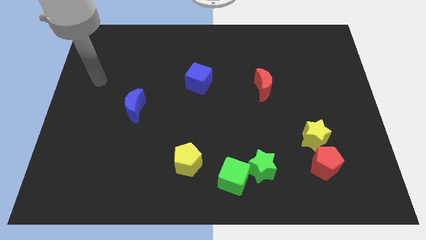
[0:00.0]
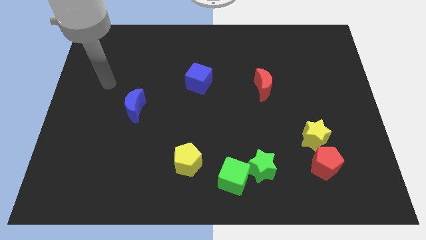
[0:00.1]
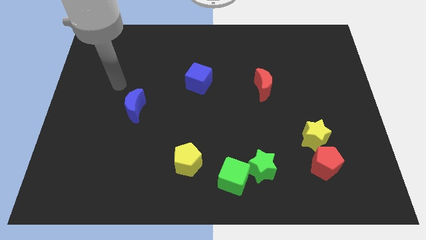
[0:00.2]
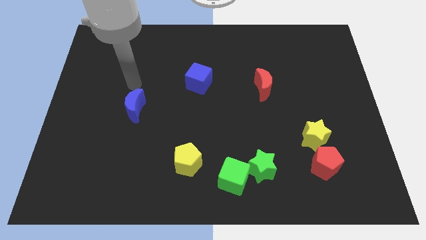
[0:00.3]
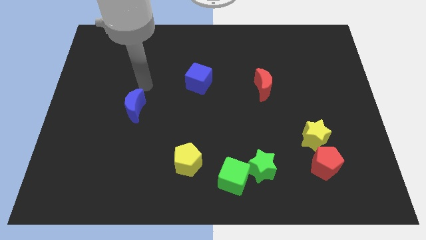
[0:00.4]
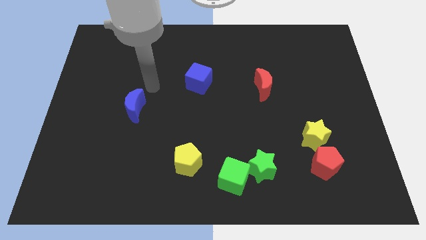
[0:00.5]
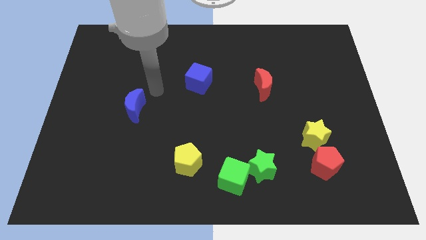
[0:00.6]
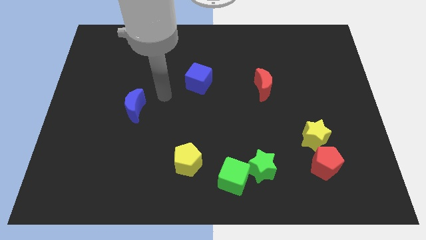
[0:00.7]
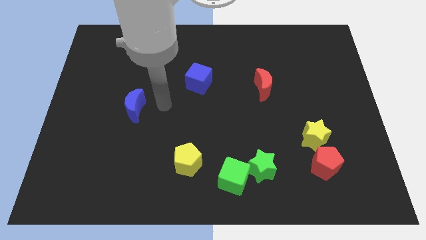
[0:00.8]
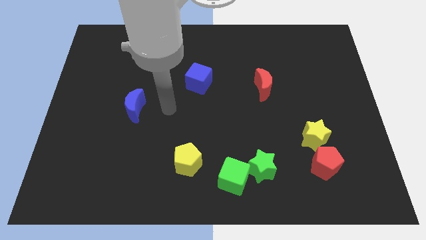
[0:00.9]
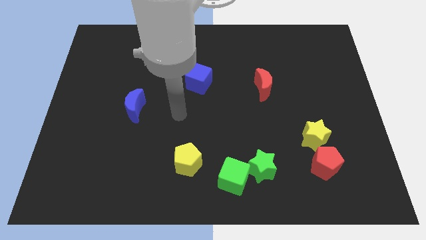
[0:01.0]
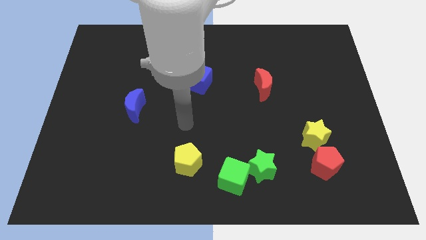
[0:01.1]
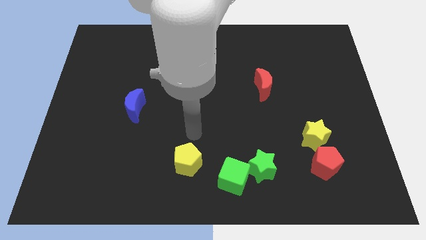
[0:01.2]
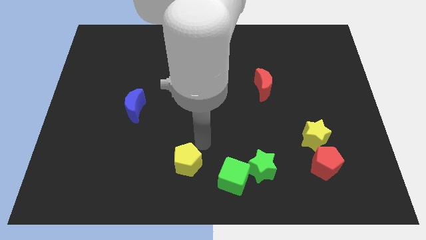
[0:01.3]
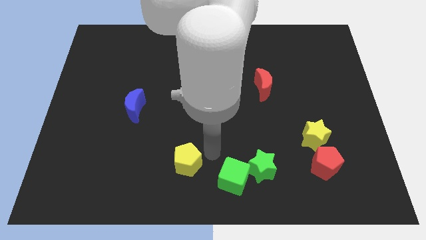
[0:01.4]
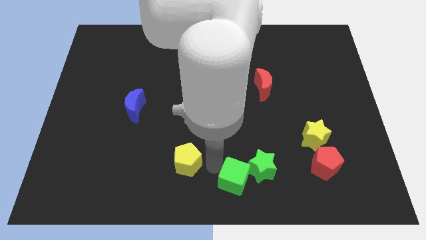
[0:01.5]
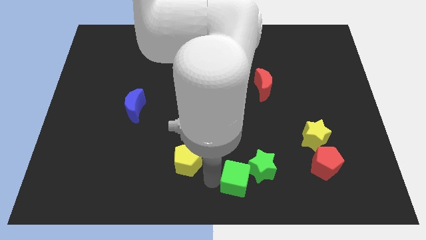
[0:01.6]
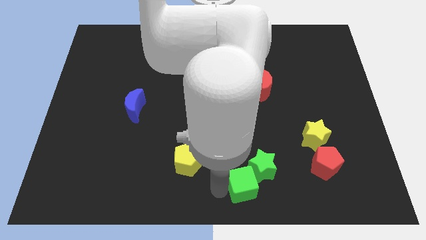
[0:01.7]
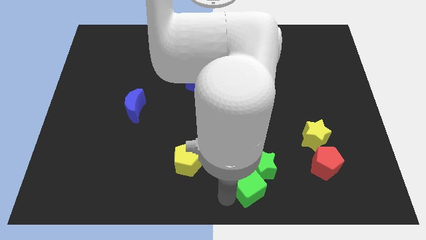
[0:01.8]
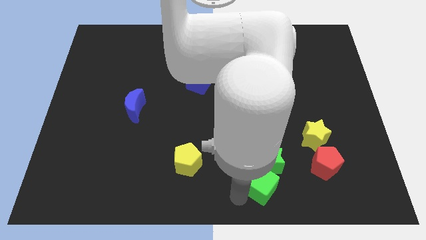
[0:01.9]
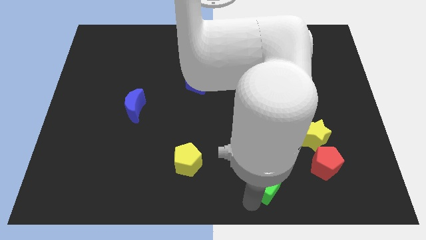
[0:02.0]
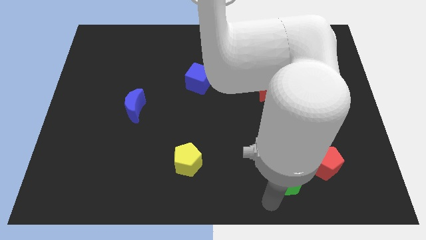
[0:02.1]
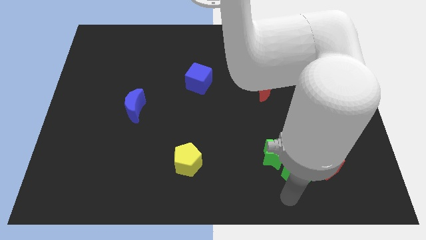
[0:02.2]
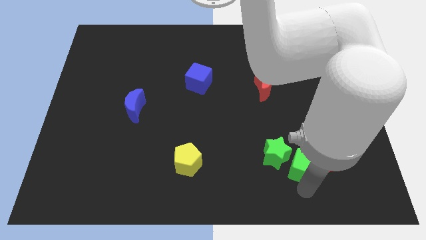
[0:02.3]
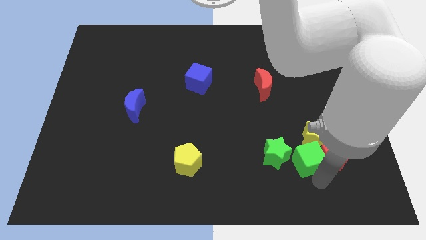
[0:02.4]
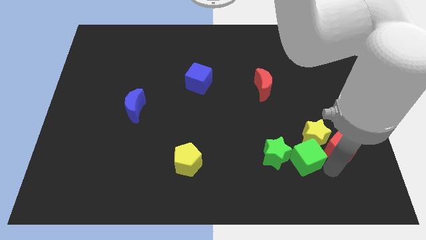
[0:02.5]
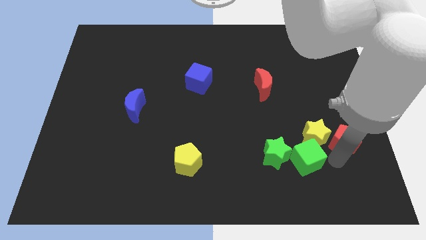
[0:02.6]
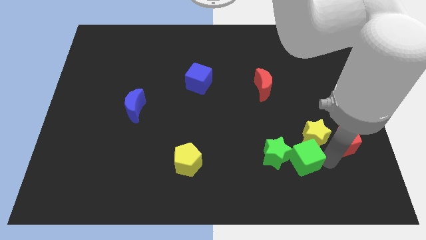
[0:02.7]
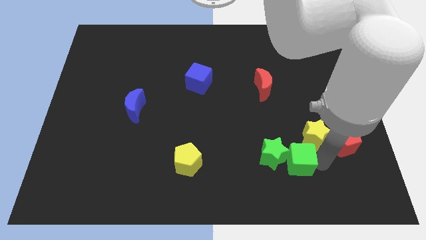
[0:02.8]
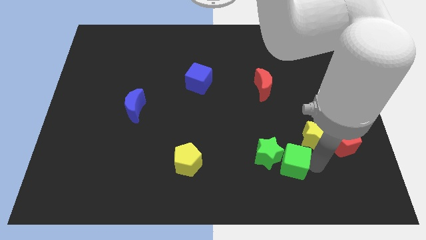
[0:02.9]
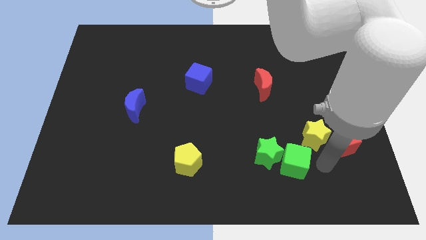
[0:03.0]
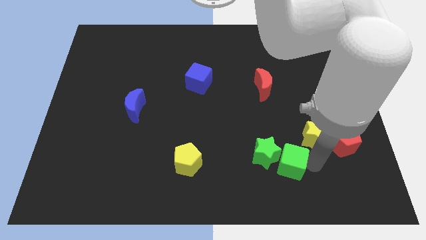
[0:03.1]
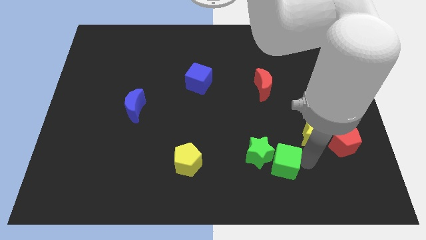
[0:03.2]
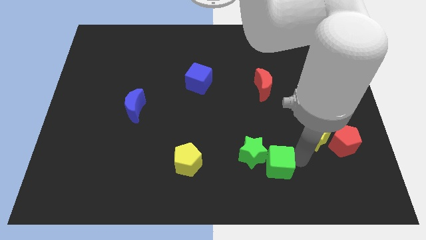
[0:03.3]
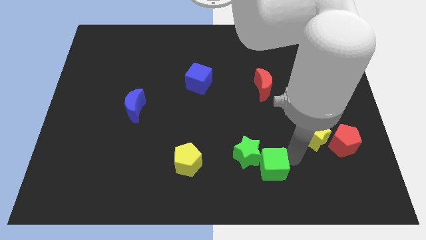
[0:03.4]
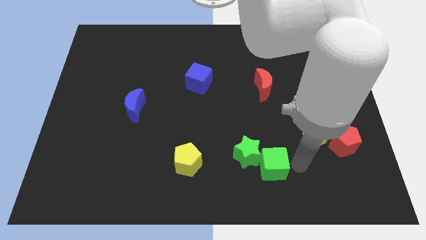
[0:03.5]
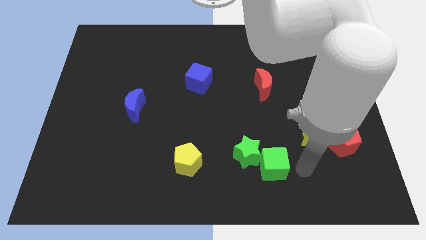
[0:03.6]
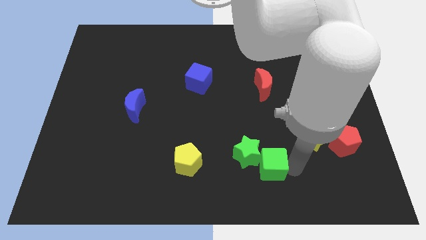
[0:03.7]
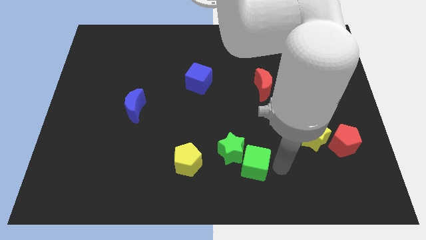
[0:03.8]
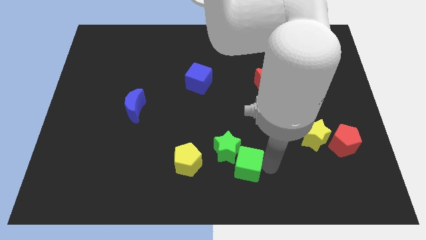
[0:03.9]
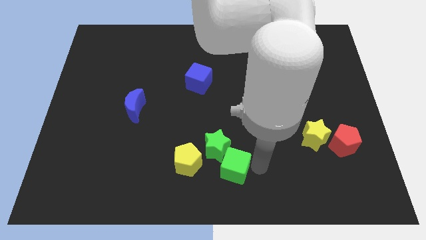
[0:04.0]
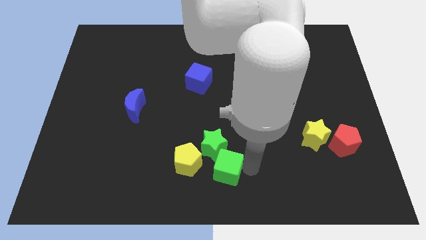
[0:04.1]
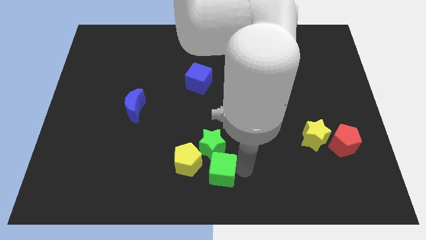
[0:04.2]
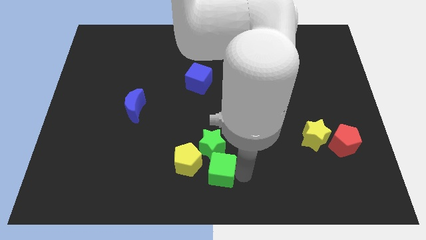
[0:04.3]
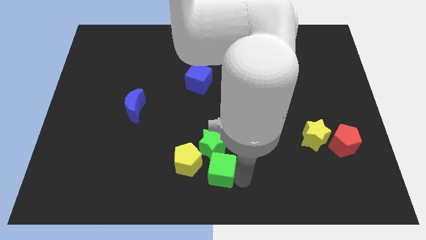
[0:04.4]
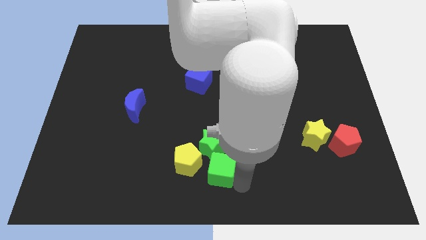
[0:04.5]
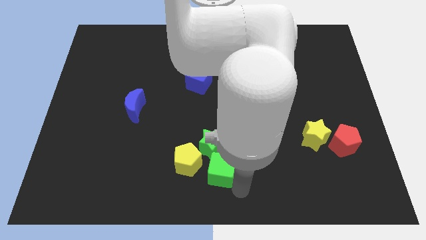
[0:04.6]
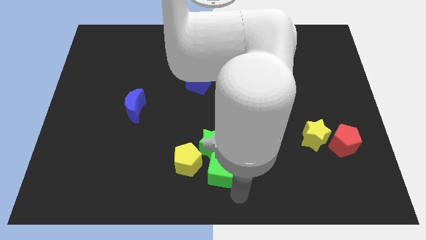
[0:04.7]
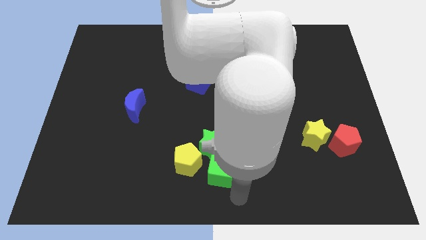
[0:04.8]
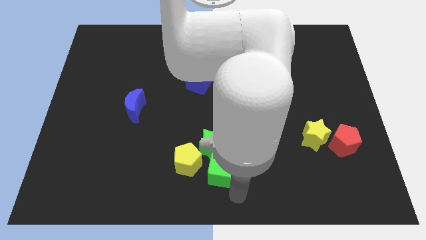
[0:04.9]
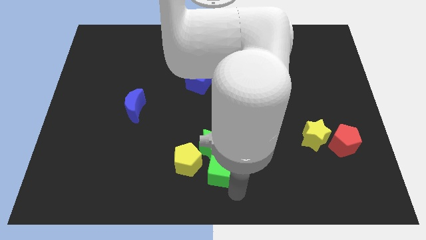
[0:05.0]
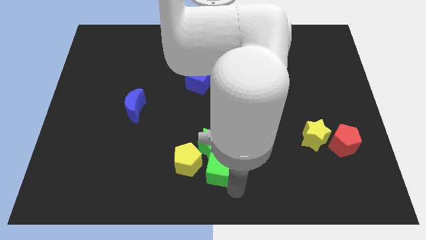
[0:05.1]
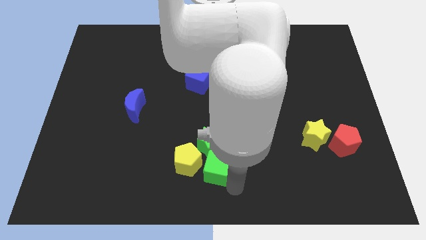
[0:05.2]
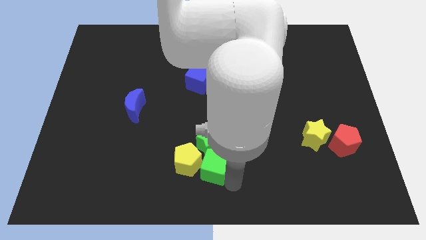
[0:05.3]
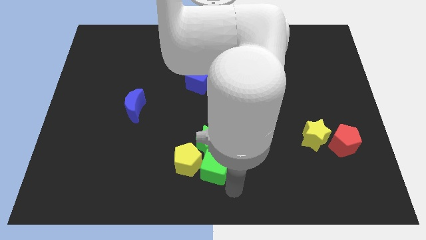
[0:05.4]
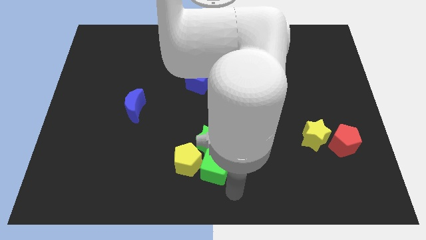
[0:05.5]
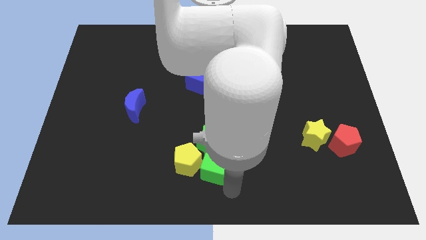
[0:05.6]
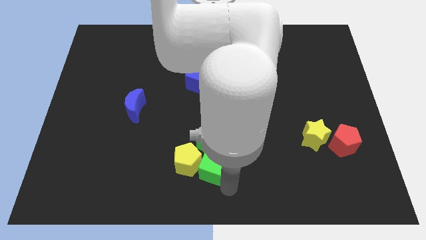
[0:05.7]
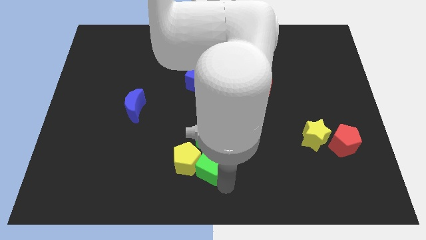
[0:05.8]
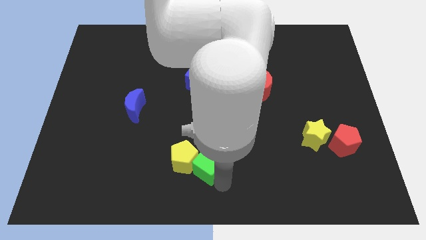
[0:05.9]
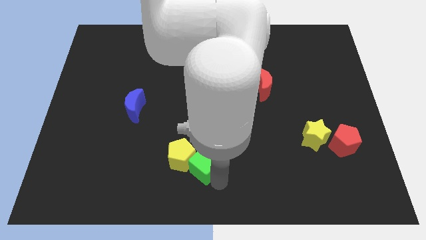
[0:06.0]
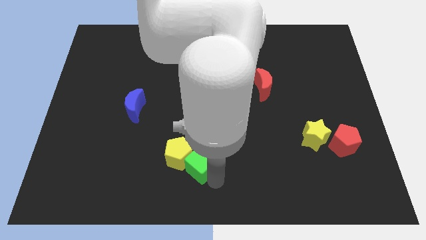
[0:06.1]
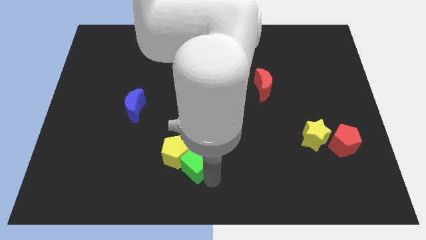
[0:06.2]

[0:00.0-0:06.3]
push the green cube a little bit upwards and then to the left

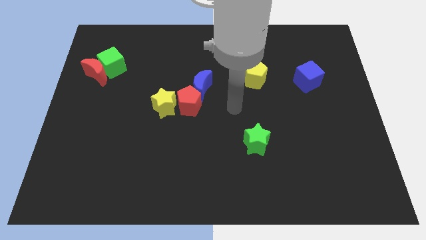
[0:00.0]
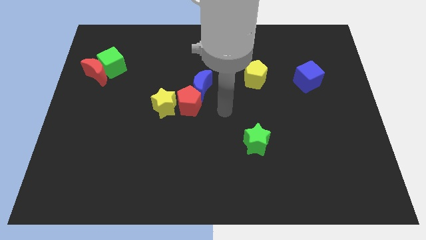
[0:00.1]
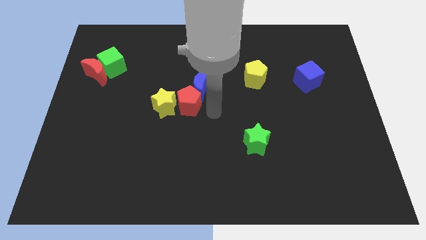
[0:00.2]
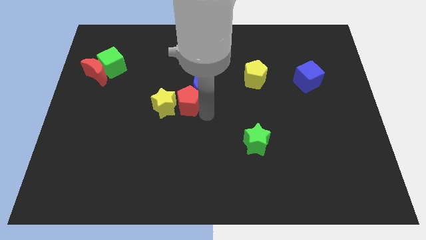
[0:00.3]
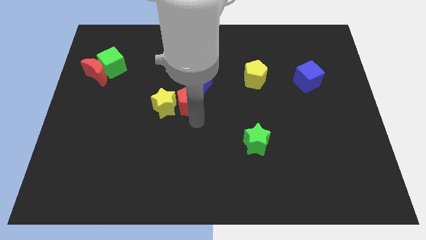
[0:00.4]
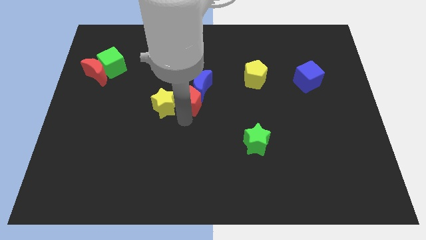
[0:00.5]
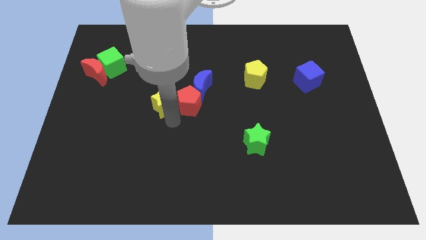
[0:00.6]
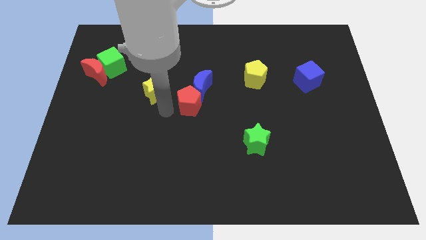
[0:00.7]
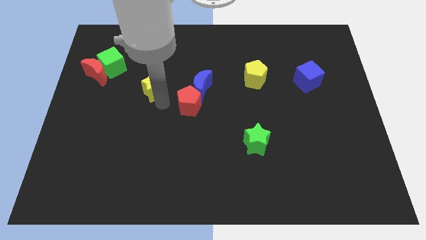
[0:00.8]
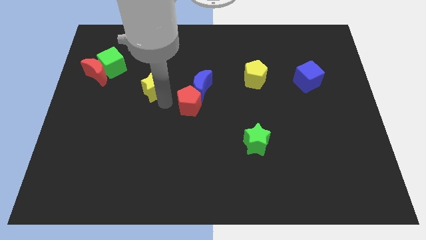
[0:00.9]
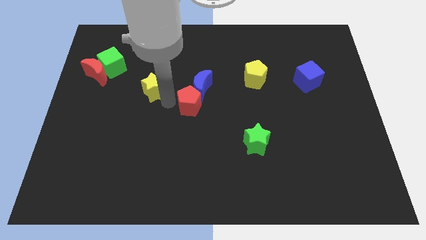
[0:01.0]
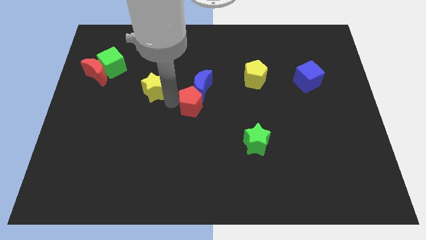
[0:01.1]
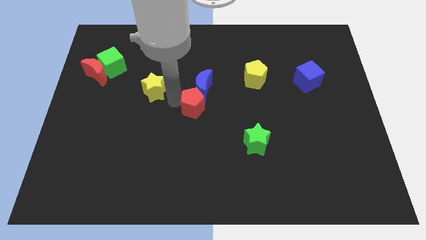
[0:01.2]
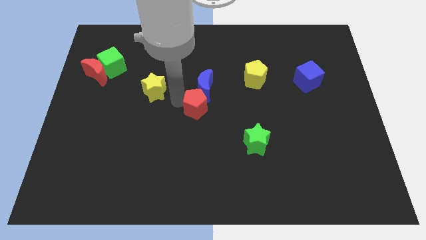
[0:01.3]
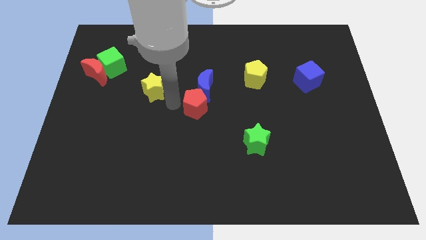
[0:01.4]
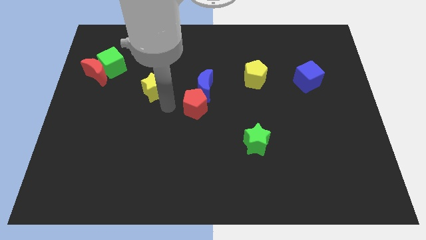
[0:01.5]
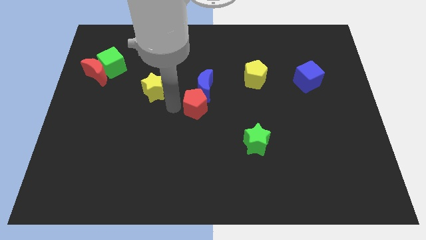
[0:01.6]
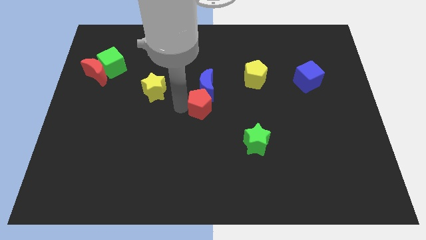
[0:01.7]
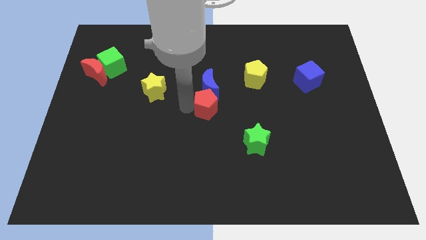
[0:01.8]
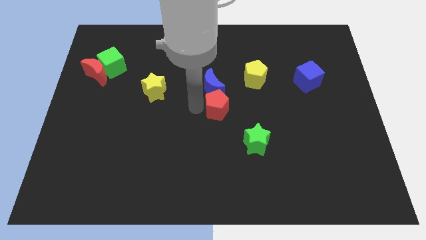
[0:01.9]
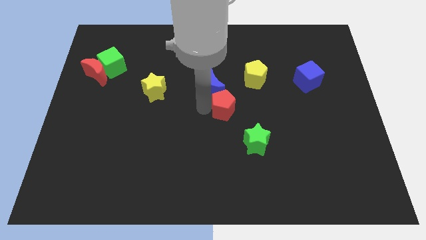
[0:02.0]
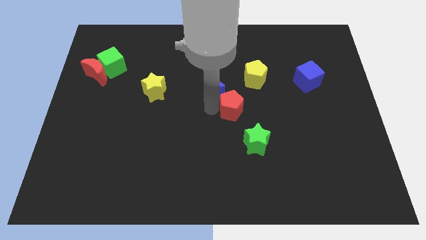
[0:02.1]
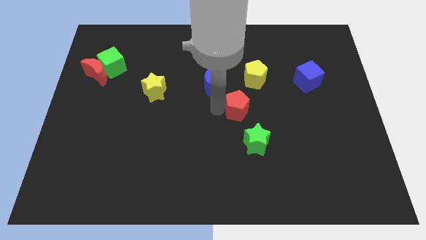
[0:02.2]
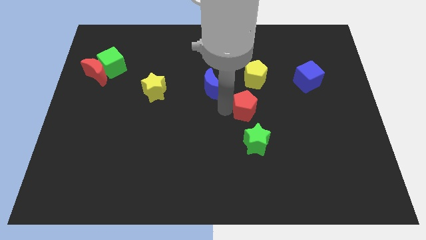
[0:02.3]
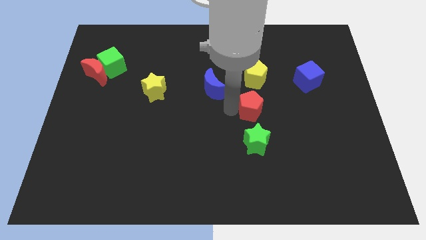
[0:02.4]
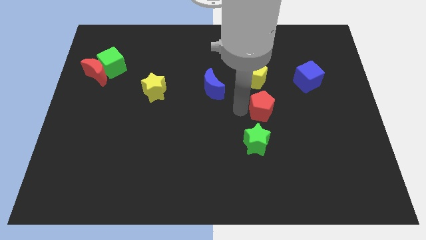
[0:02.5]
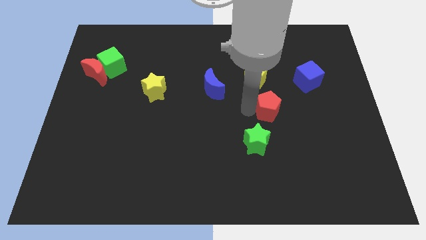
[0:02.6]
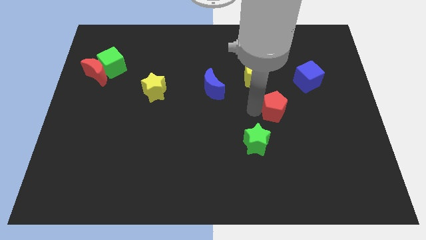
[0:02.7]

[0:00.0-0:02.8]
push the red pentagon right
